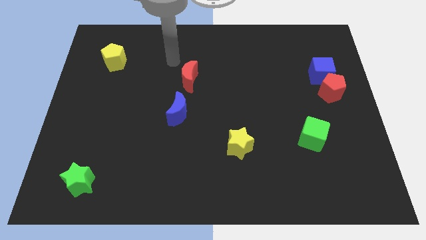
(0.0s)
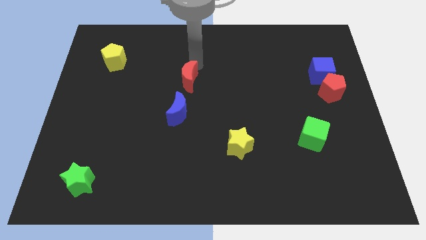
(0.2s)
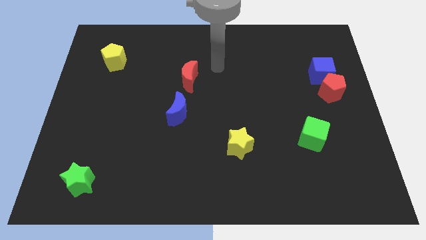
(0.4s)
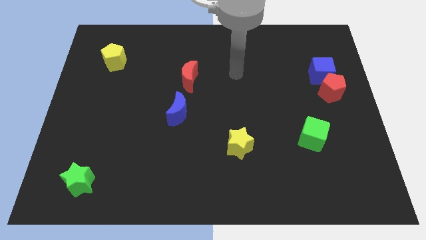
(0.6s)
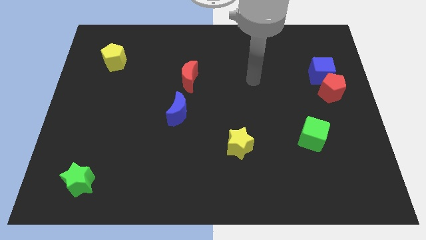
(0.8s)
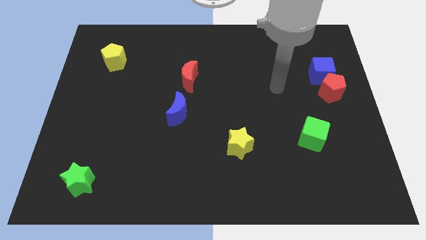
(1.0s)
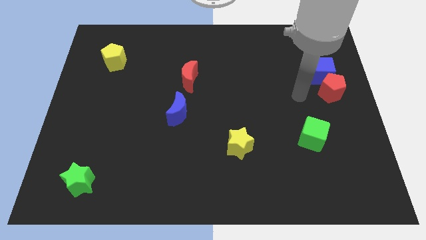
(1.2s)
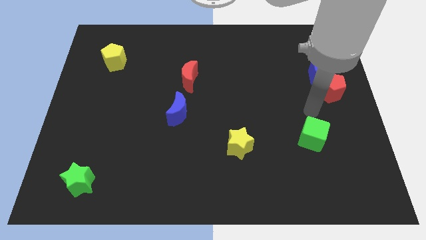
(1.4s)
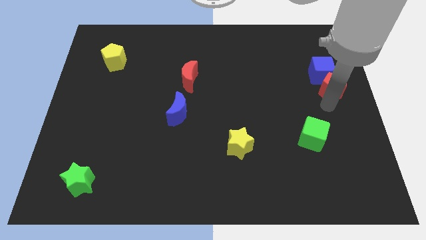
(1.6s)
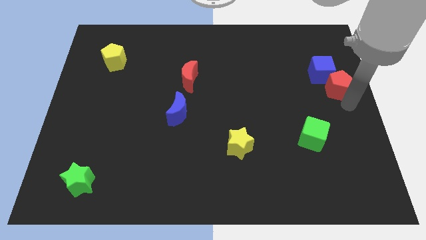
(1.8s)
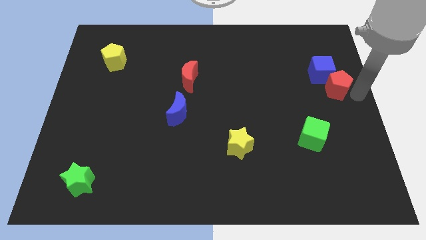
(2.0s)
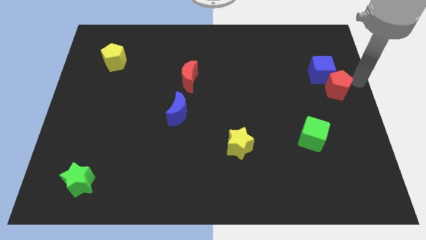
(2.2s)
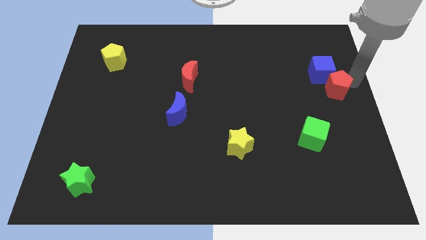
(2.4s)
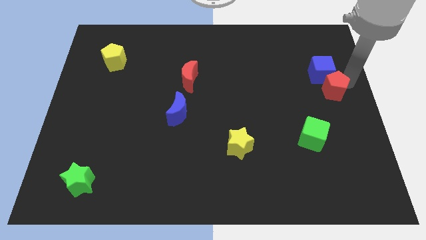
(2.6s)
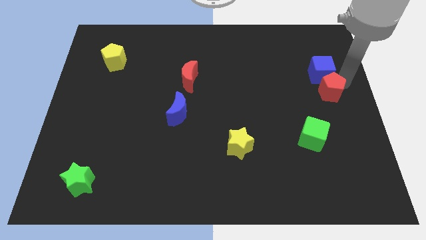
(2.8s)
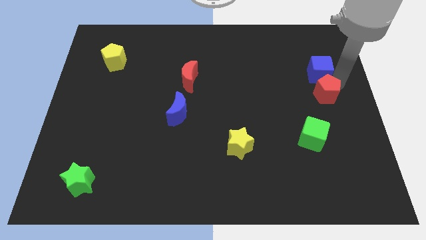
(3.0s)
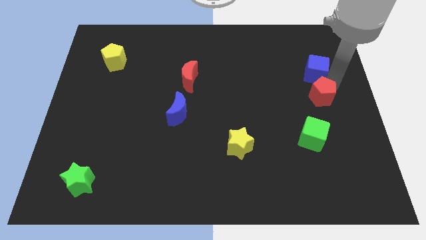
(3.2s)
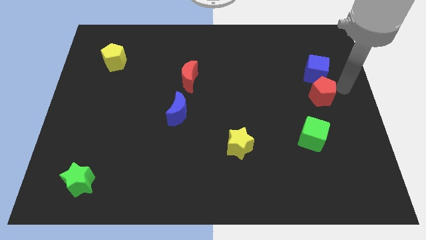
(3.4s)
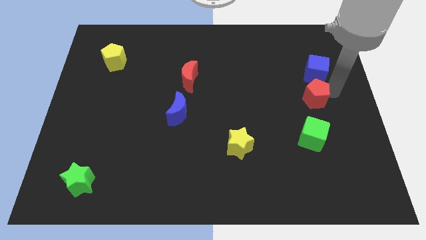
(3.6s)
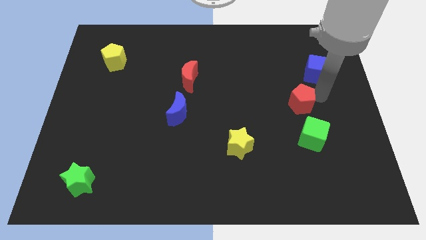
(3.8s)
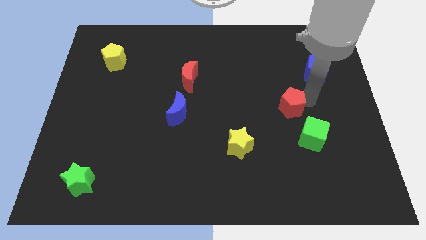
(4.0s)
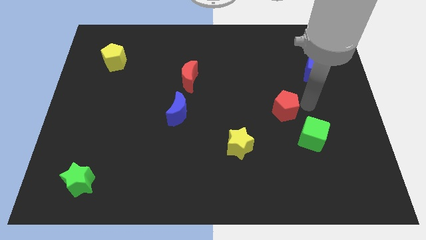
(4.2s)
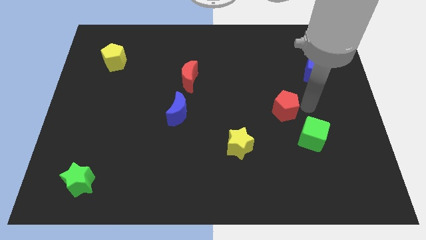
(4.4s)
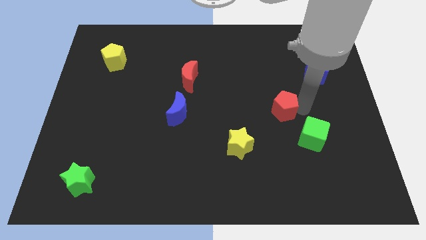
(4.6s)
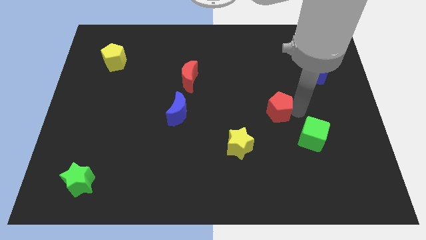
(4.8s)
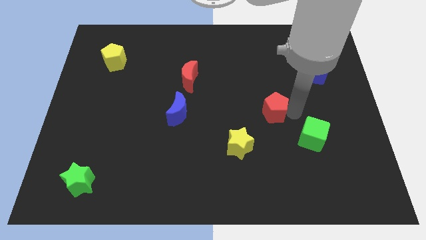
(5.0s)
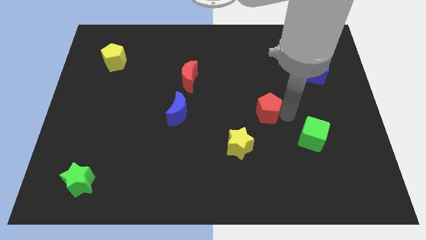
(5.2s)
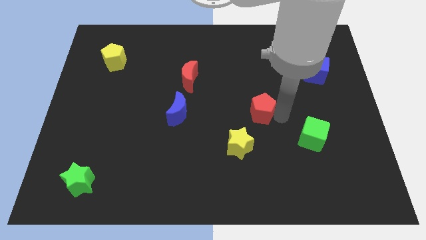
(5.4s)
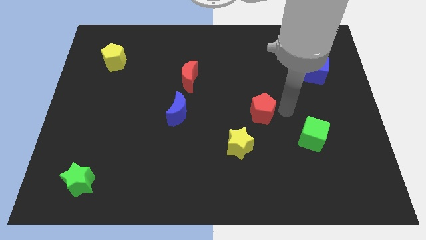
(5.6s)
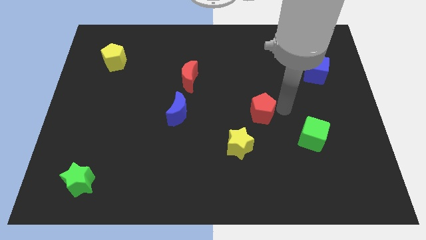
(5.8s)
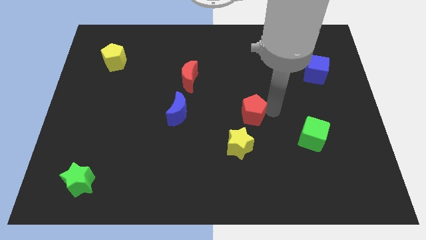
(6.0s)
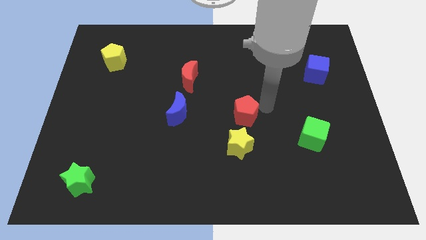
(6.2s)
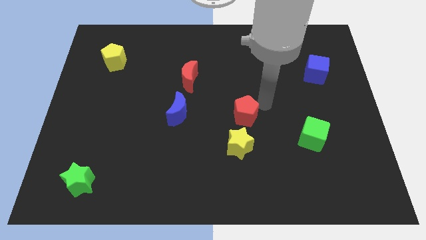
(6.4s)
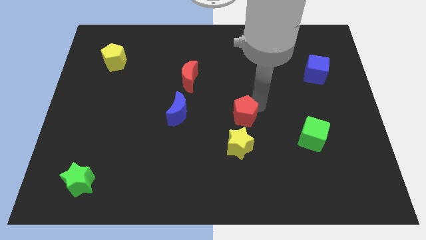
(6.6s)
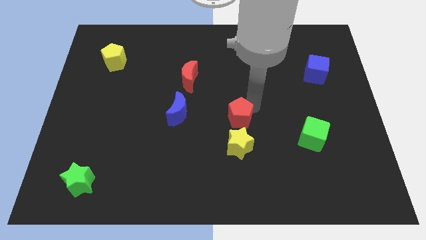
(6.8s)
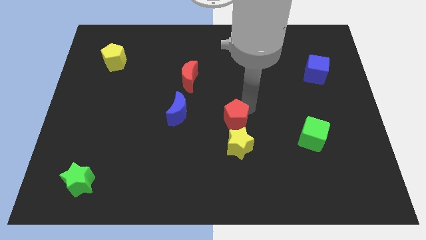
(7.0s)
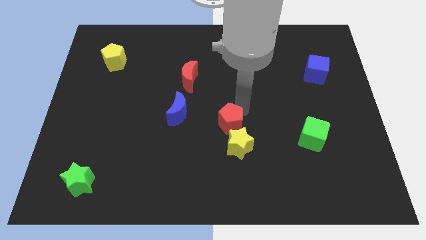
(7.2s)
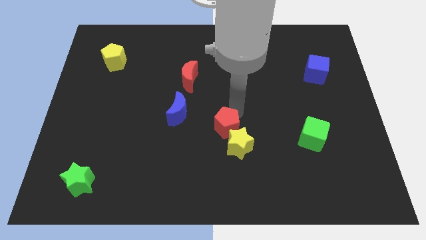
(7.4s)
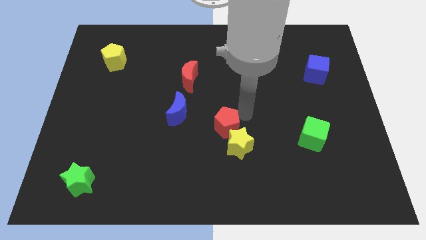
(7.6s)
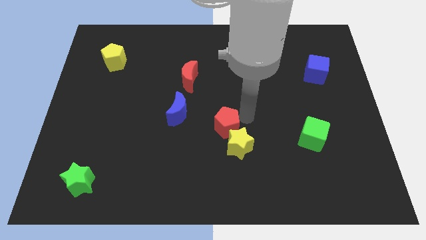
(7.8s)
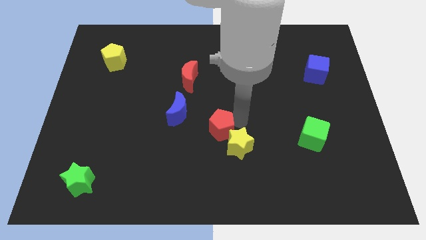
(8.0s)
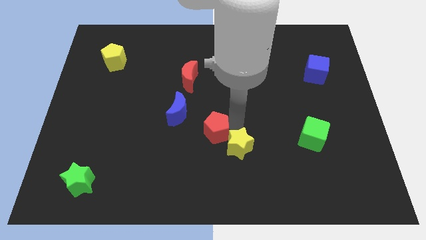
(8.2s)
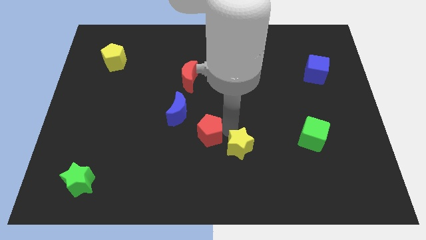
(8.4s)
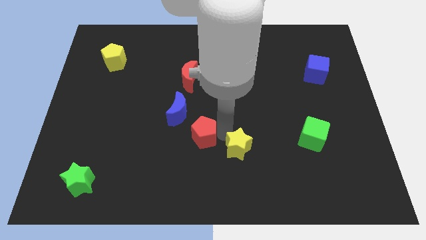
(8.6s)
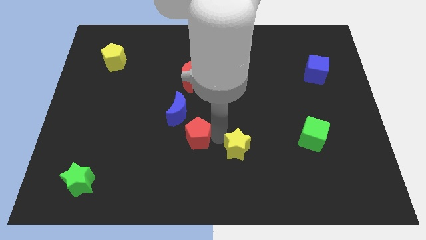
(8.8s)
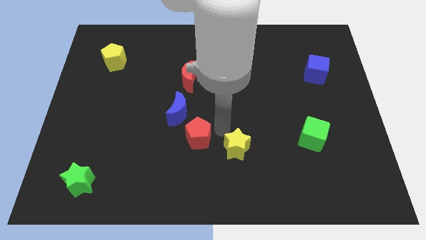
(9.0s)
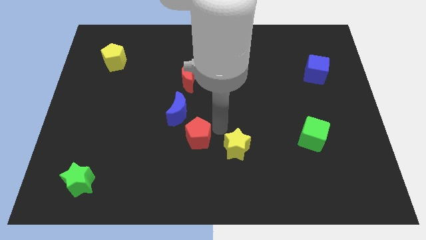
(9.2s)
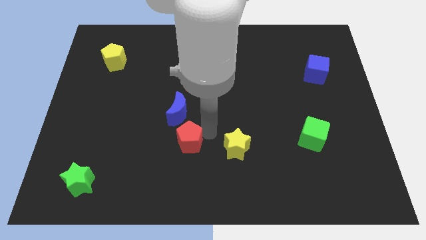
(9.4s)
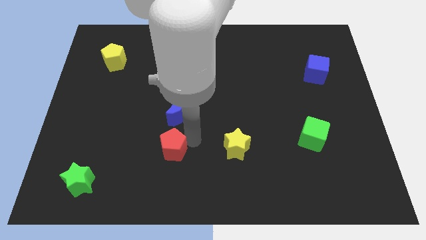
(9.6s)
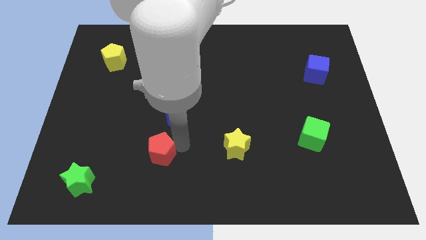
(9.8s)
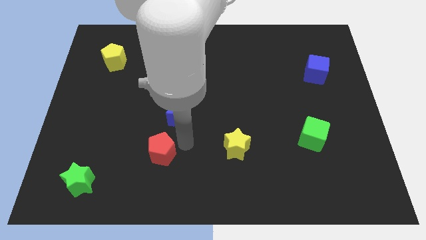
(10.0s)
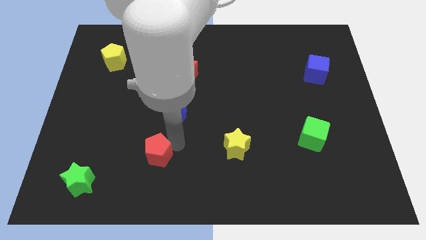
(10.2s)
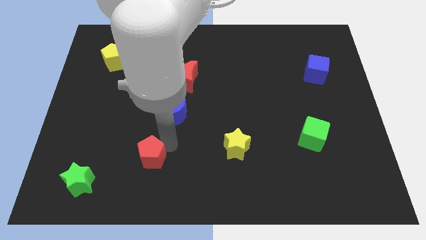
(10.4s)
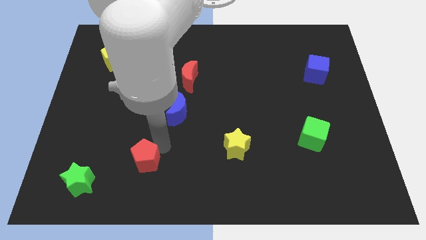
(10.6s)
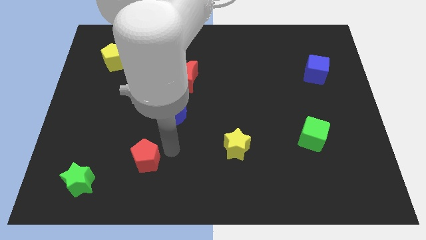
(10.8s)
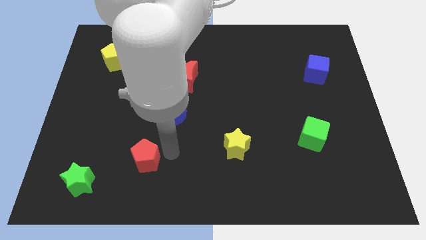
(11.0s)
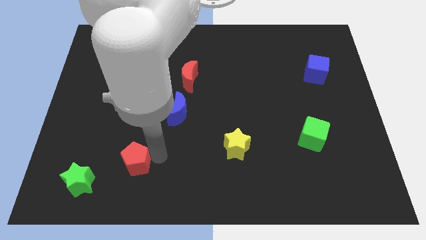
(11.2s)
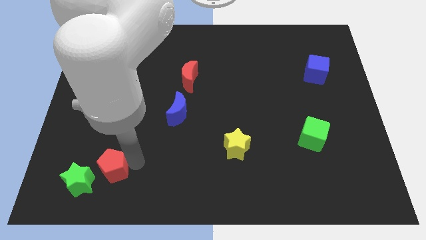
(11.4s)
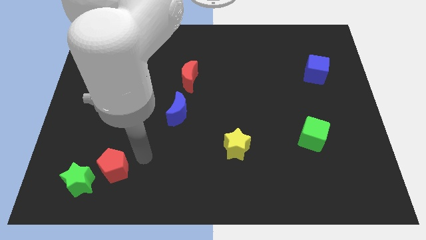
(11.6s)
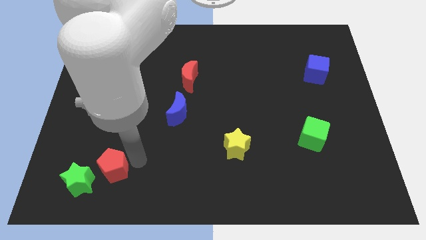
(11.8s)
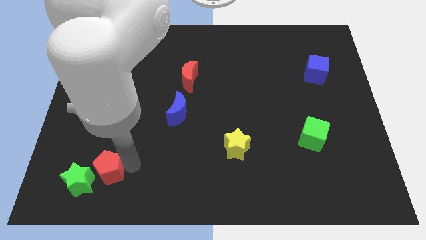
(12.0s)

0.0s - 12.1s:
put the red pentagon towards the green star

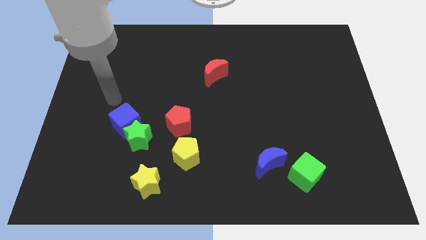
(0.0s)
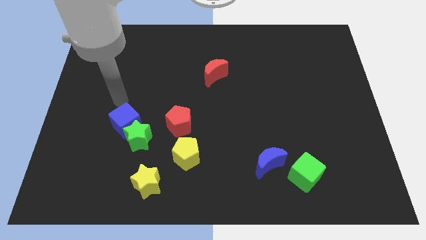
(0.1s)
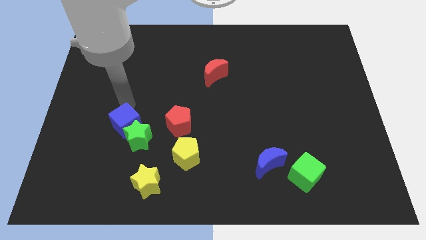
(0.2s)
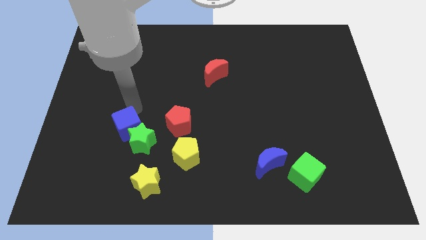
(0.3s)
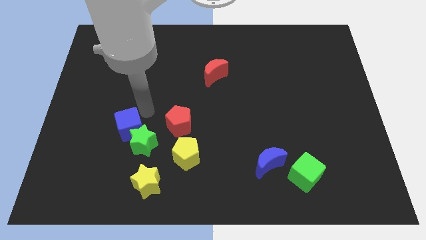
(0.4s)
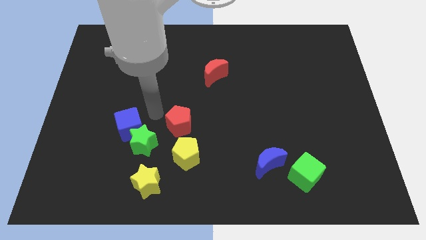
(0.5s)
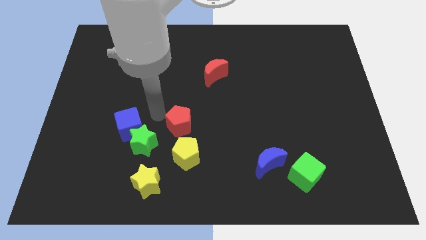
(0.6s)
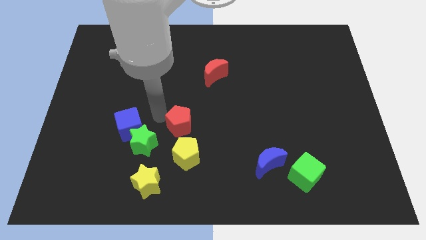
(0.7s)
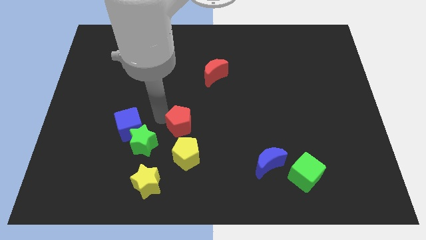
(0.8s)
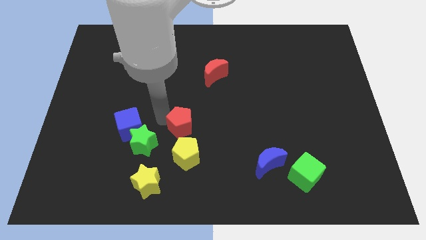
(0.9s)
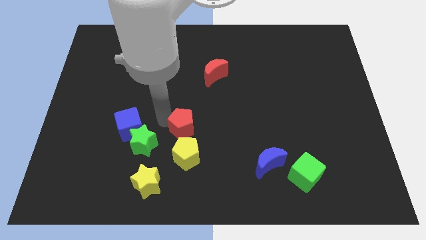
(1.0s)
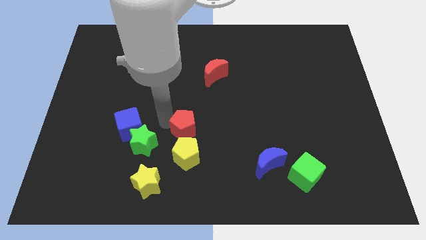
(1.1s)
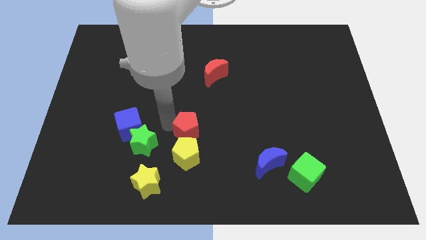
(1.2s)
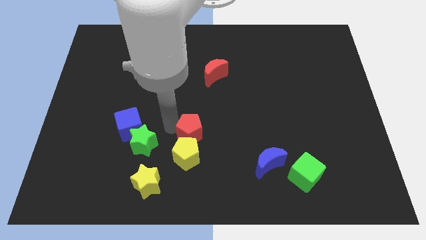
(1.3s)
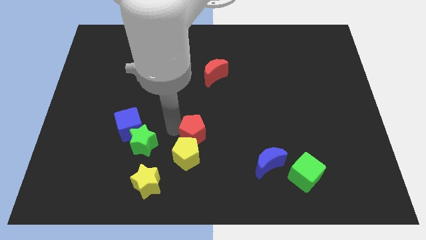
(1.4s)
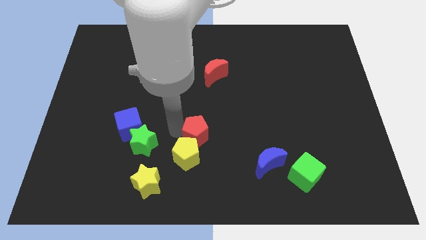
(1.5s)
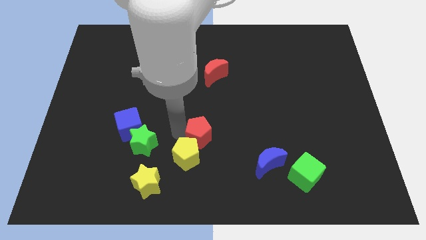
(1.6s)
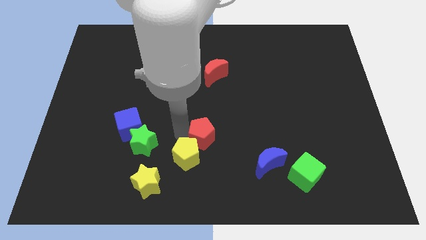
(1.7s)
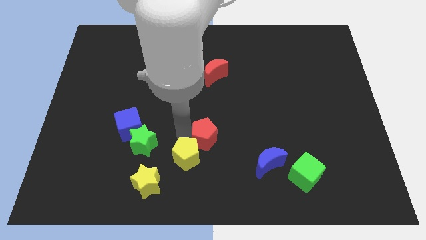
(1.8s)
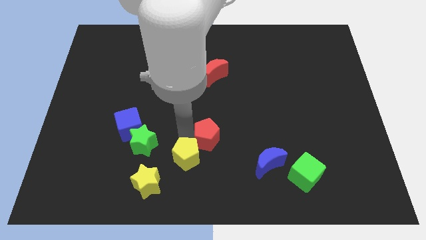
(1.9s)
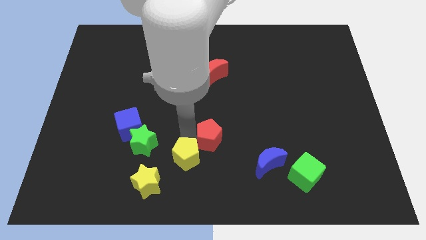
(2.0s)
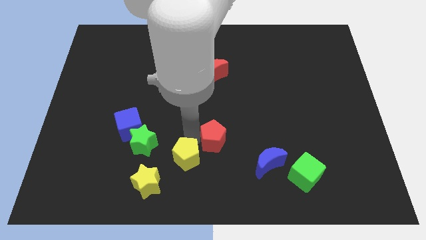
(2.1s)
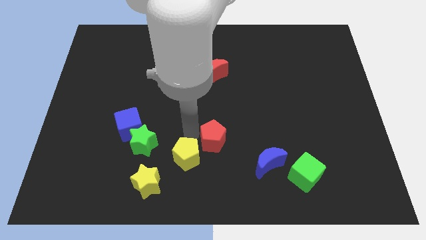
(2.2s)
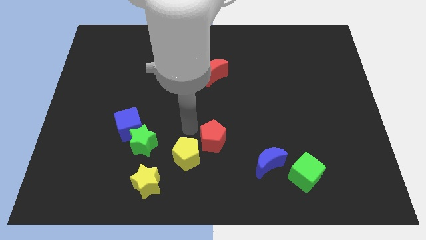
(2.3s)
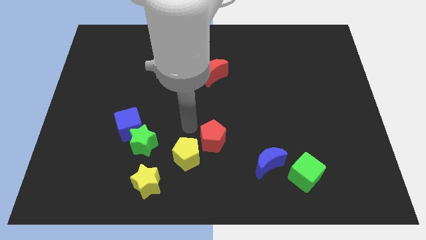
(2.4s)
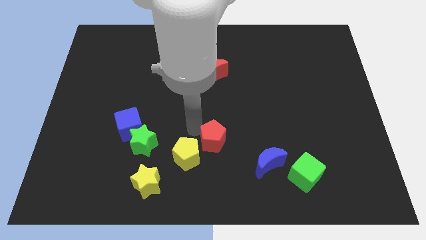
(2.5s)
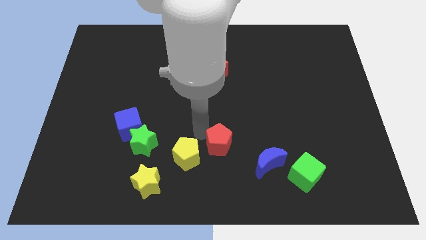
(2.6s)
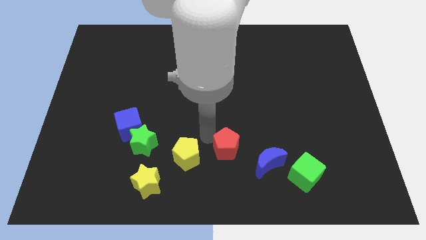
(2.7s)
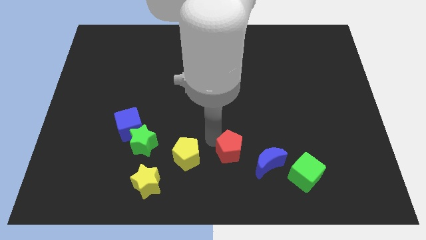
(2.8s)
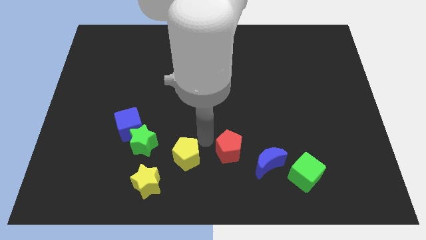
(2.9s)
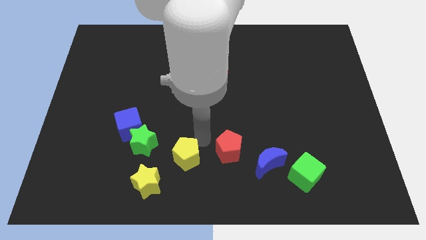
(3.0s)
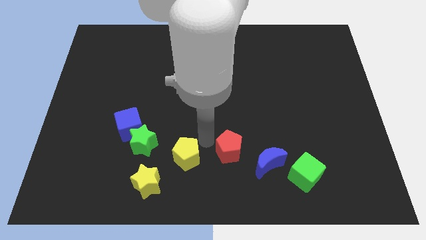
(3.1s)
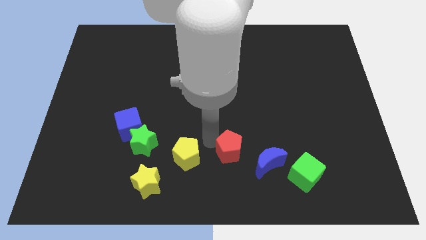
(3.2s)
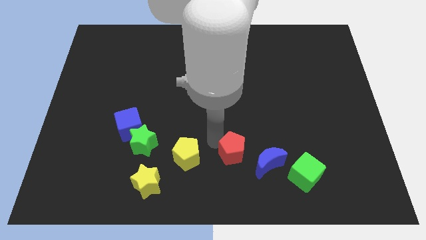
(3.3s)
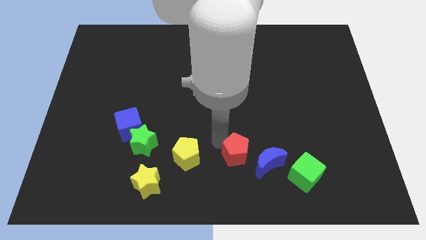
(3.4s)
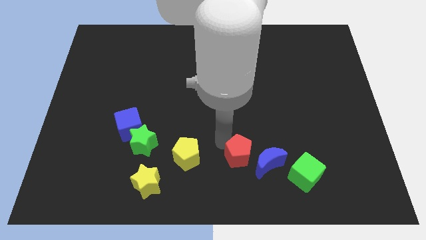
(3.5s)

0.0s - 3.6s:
slide the red pentagon close to the blue moon
